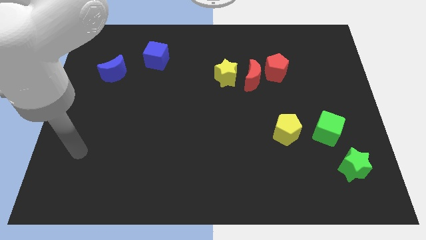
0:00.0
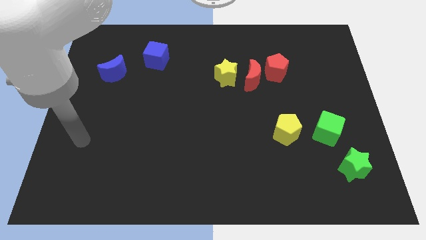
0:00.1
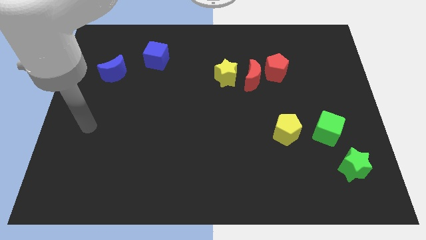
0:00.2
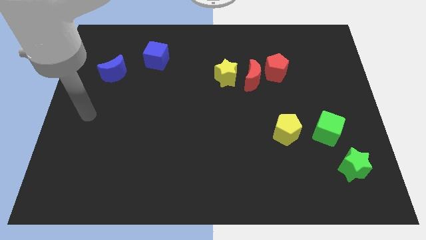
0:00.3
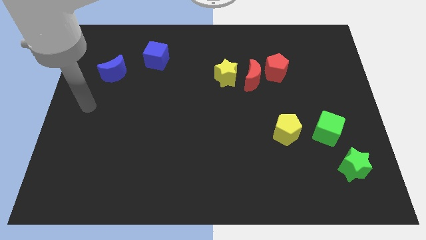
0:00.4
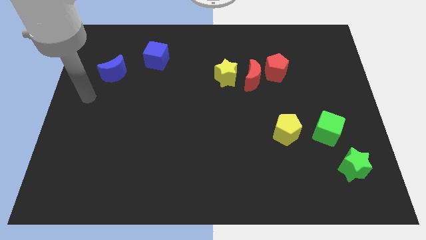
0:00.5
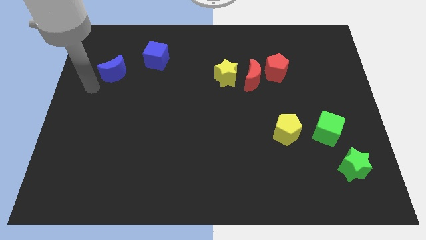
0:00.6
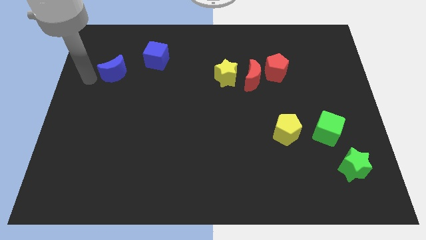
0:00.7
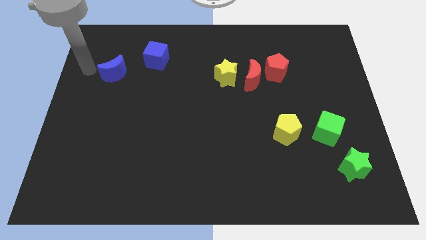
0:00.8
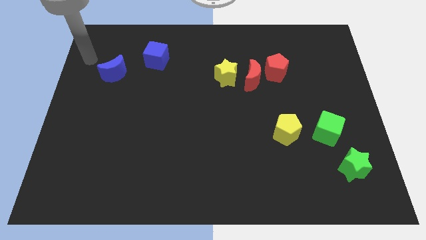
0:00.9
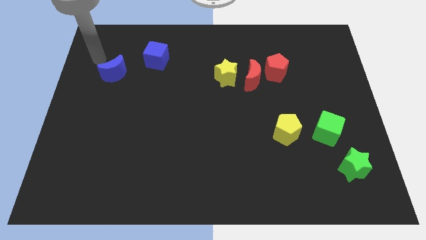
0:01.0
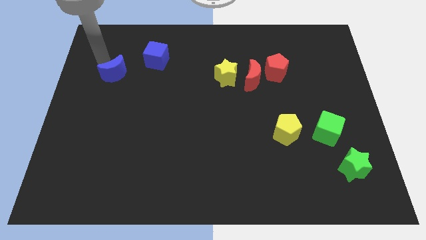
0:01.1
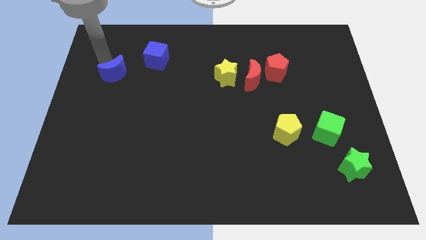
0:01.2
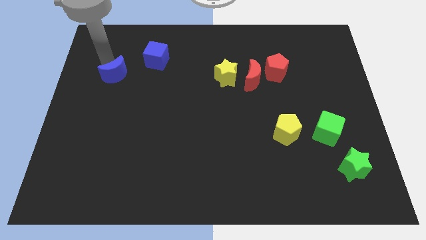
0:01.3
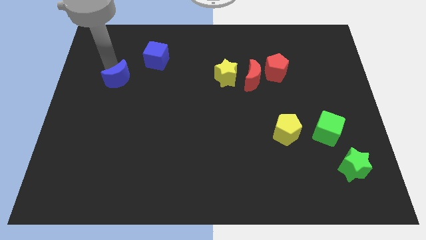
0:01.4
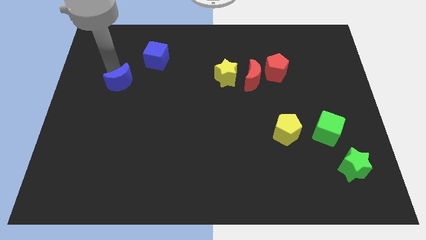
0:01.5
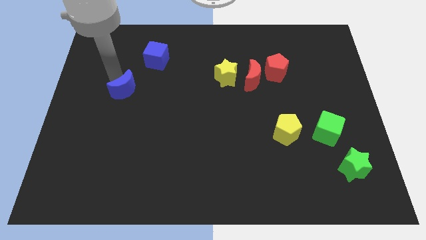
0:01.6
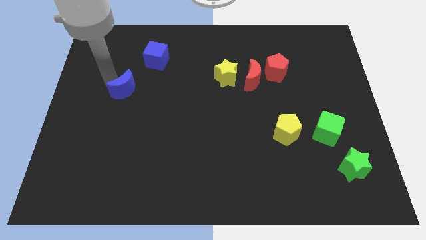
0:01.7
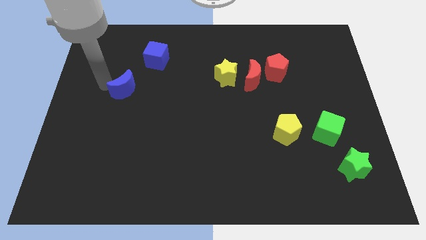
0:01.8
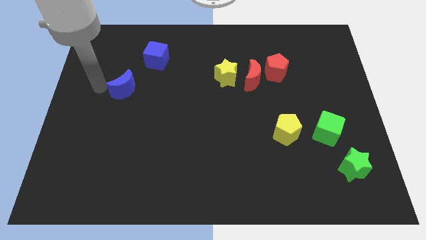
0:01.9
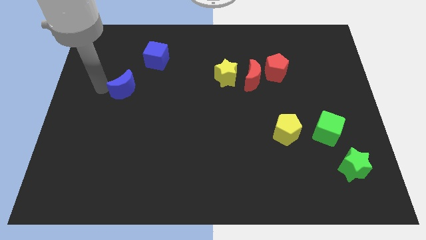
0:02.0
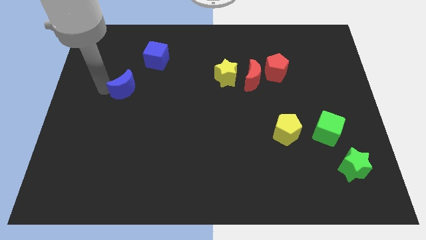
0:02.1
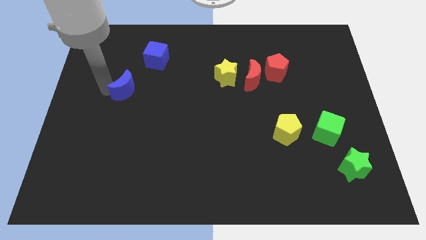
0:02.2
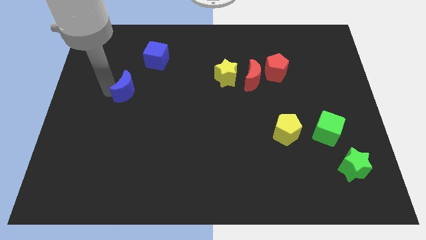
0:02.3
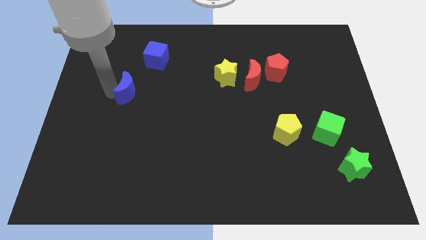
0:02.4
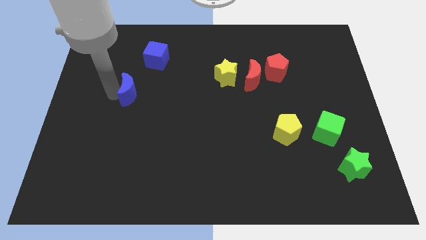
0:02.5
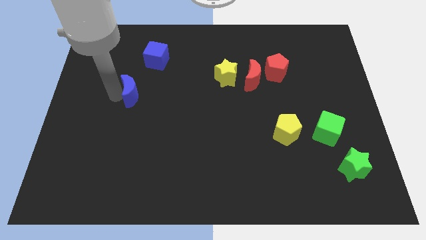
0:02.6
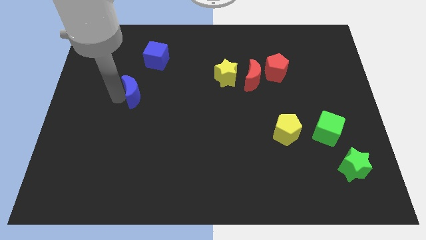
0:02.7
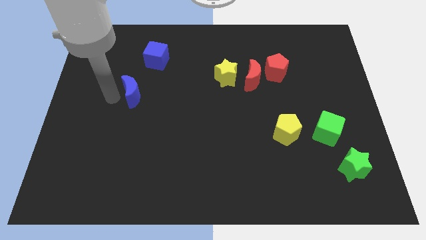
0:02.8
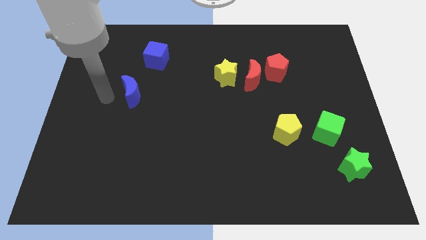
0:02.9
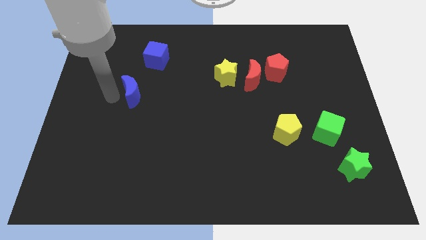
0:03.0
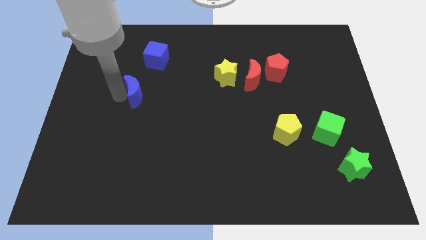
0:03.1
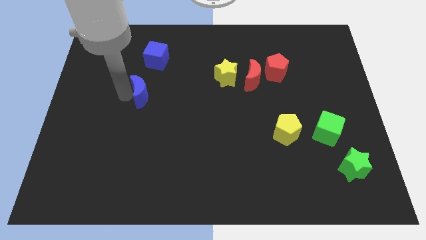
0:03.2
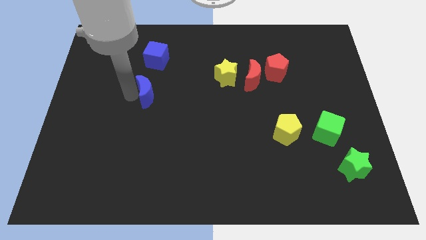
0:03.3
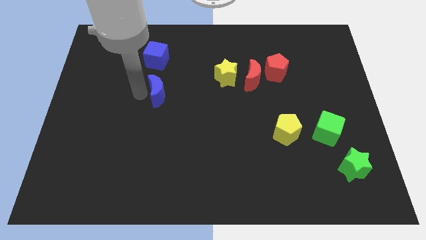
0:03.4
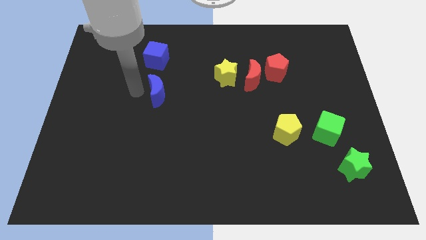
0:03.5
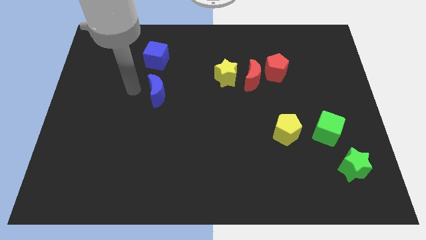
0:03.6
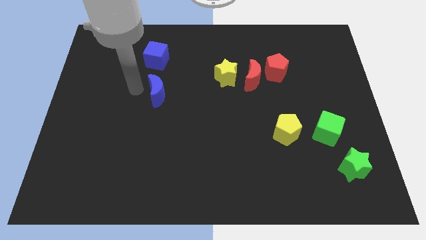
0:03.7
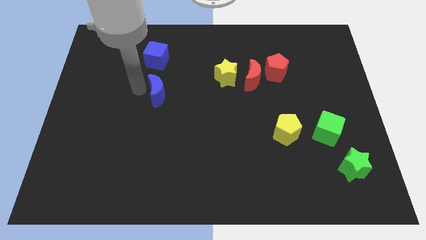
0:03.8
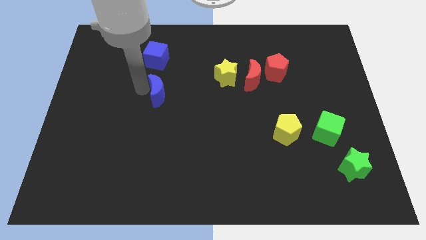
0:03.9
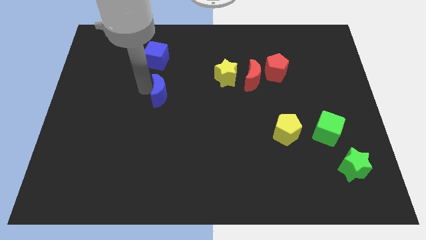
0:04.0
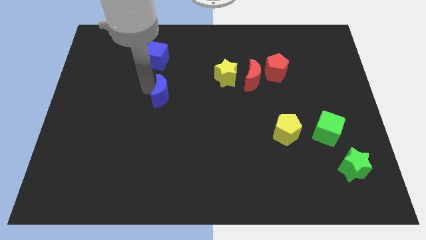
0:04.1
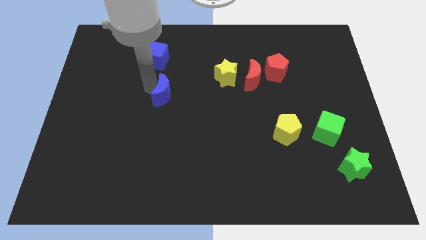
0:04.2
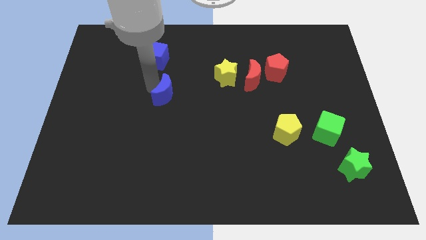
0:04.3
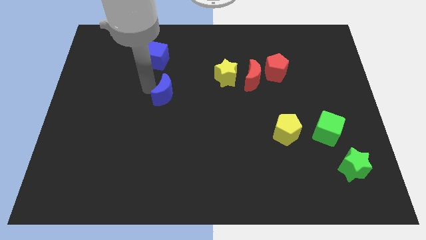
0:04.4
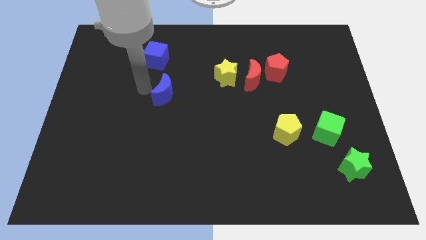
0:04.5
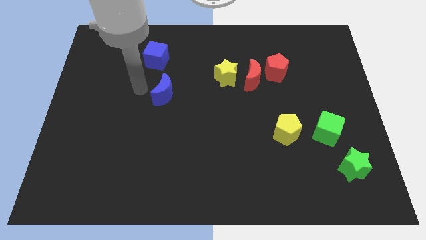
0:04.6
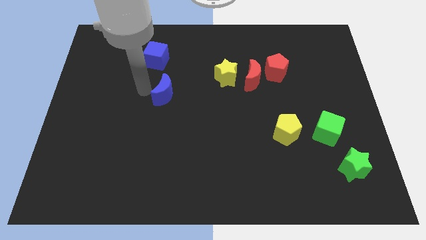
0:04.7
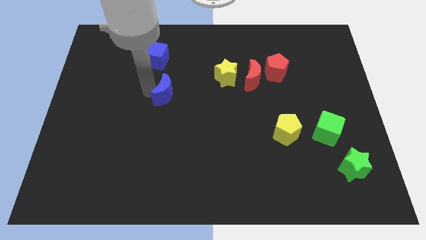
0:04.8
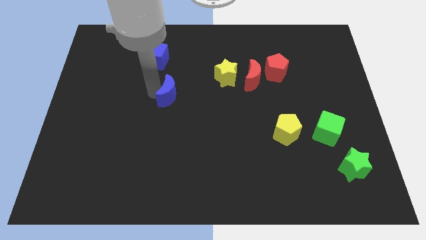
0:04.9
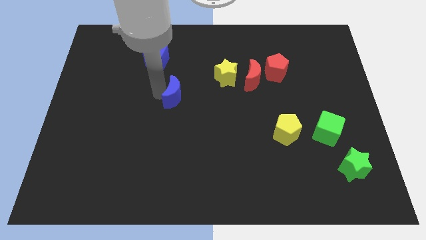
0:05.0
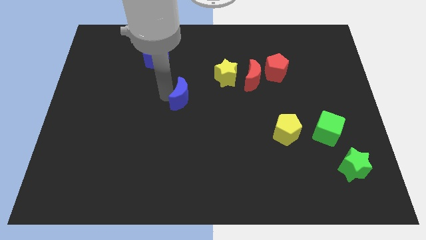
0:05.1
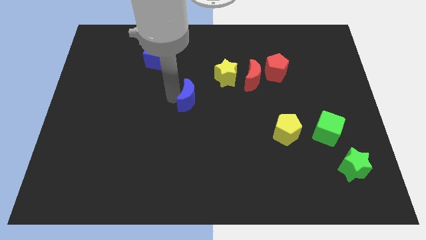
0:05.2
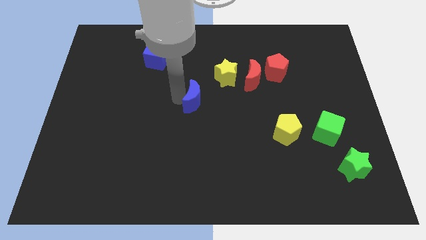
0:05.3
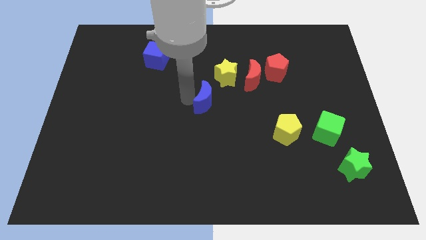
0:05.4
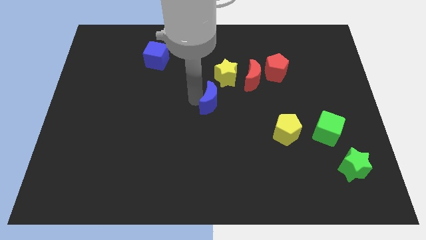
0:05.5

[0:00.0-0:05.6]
put the blue moon to the bottom of the yellow star

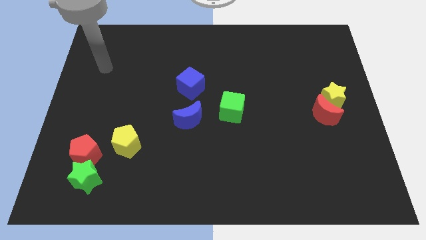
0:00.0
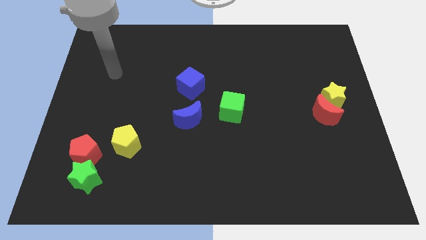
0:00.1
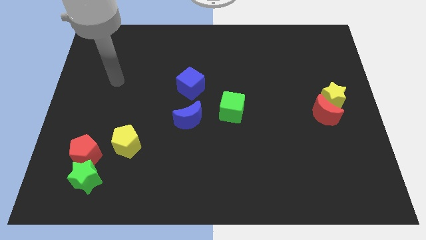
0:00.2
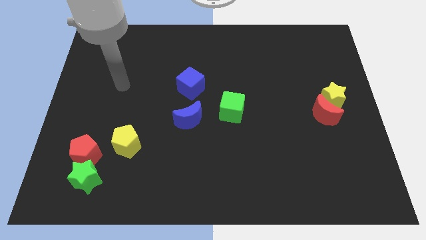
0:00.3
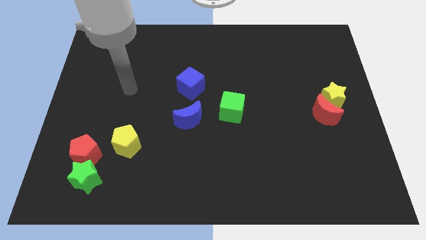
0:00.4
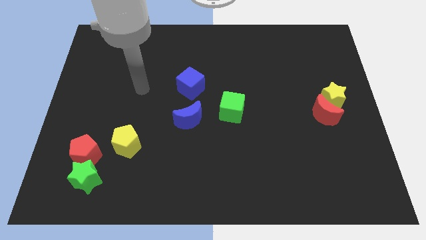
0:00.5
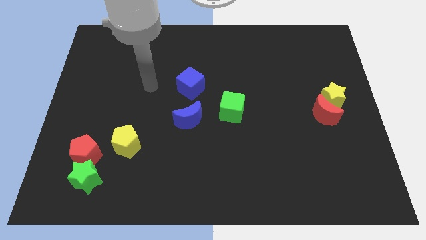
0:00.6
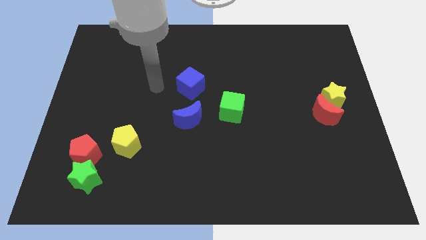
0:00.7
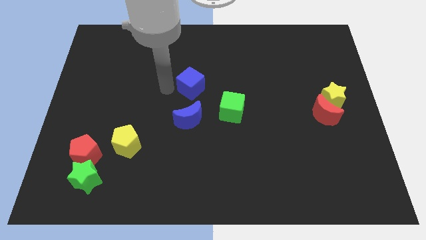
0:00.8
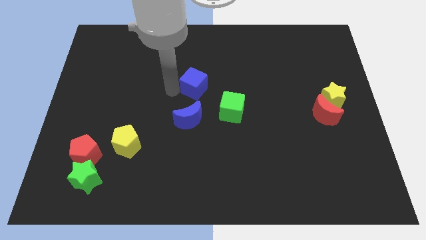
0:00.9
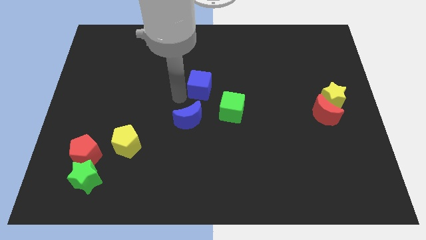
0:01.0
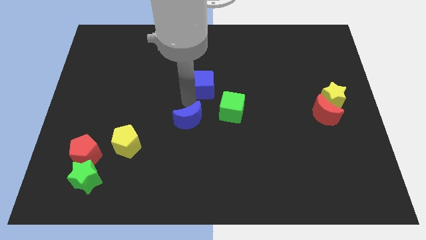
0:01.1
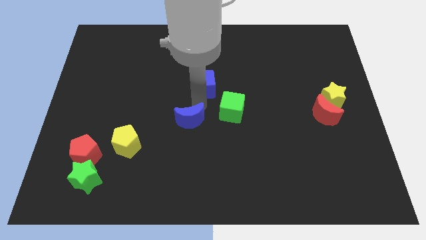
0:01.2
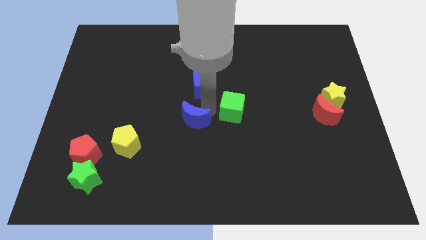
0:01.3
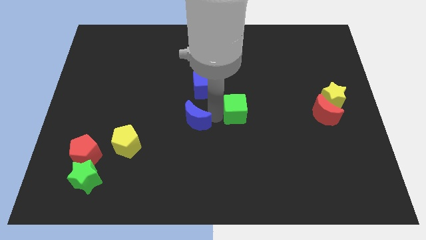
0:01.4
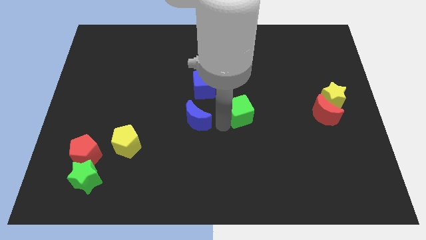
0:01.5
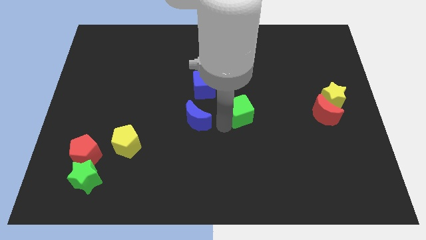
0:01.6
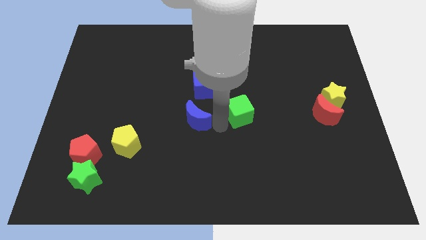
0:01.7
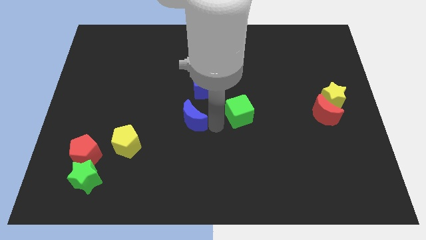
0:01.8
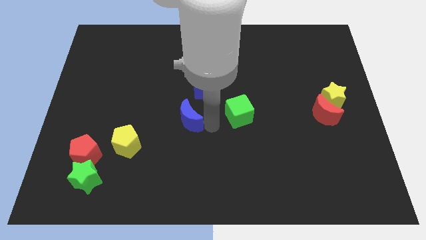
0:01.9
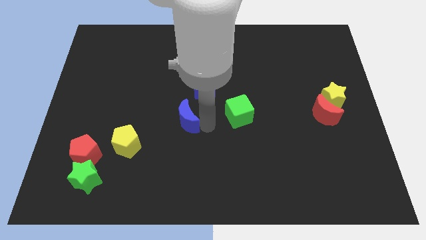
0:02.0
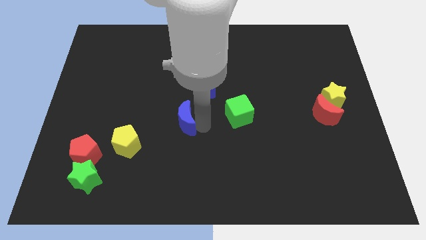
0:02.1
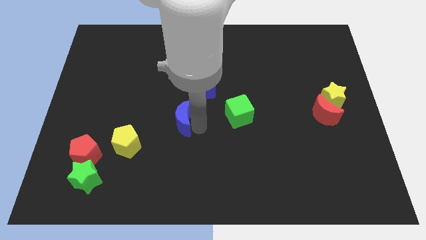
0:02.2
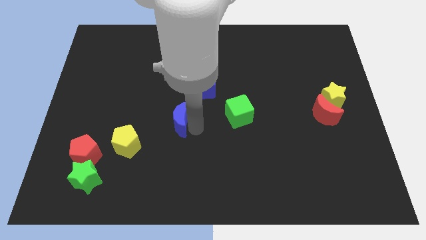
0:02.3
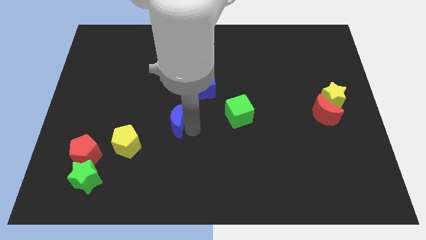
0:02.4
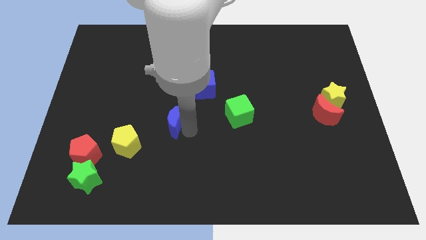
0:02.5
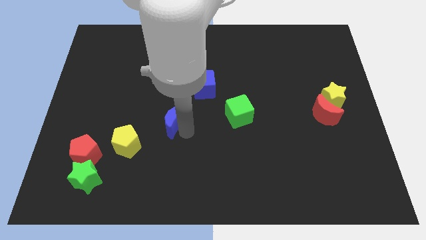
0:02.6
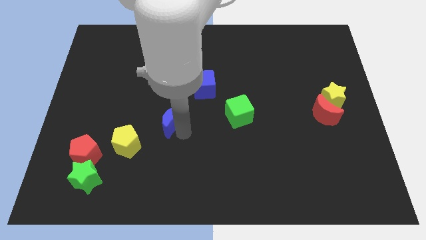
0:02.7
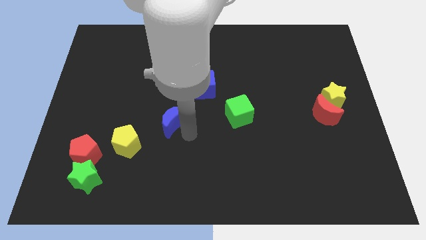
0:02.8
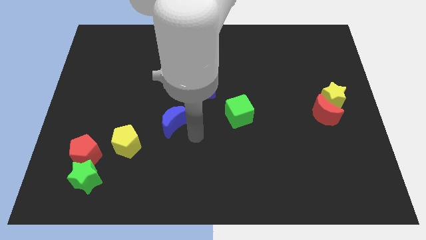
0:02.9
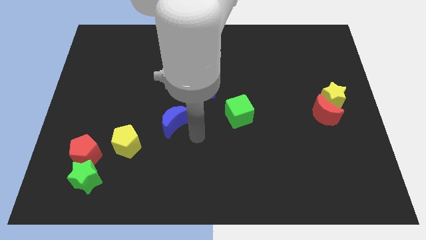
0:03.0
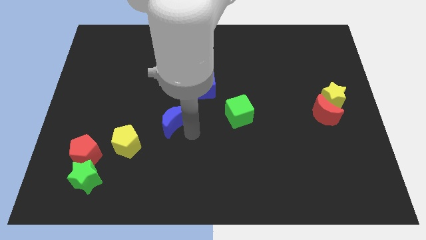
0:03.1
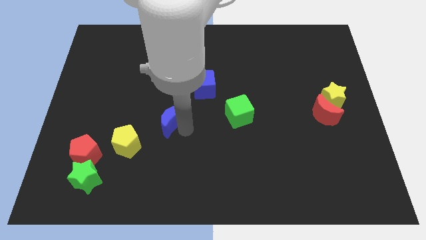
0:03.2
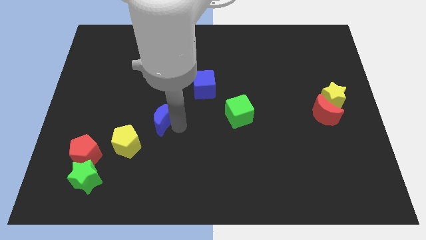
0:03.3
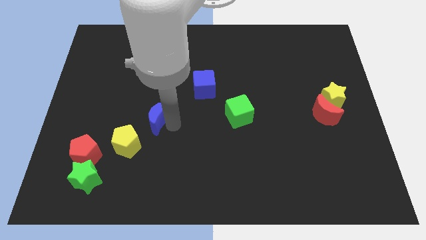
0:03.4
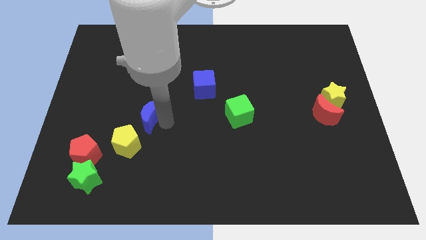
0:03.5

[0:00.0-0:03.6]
put the blue moon to the top side of the yellow pentagon
